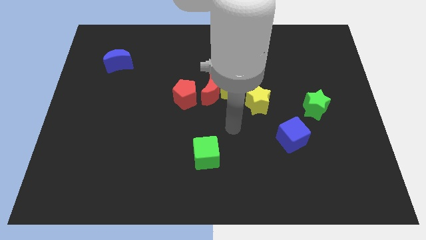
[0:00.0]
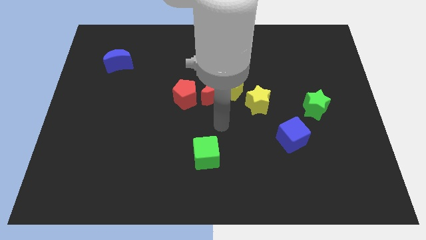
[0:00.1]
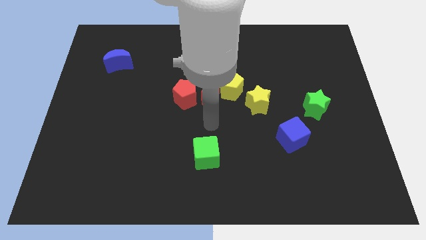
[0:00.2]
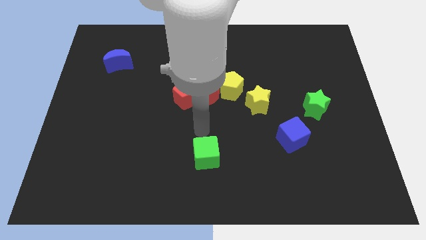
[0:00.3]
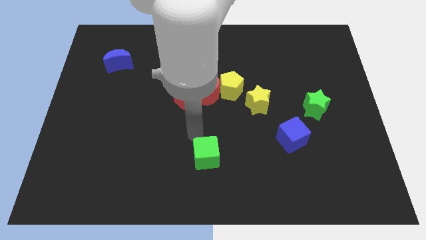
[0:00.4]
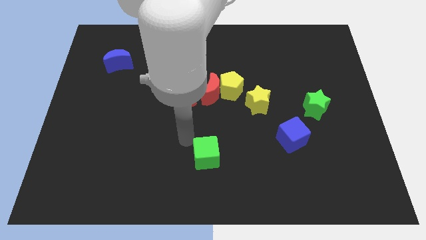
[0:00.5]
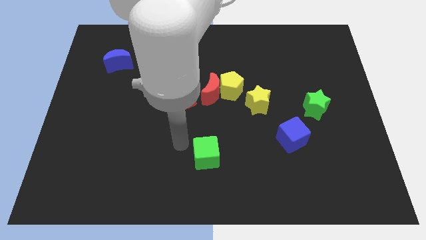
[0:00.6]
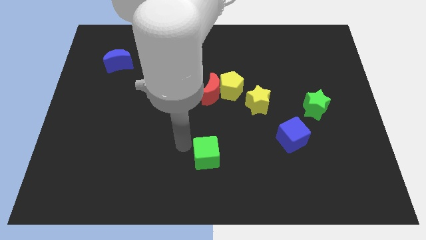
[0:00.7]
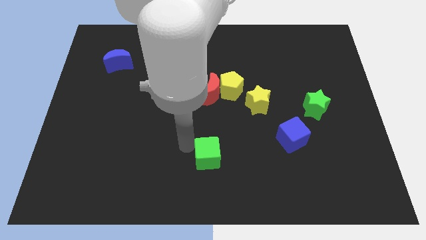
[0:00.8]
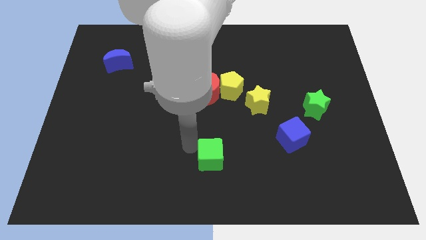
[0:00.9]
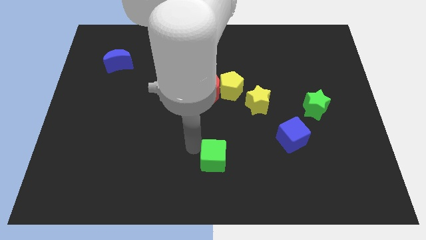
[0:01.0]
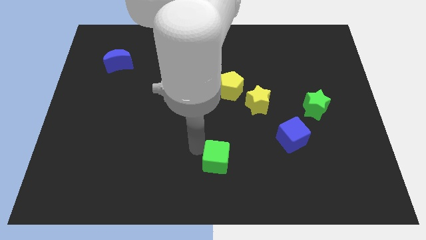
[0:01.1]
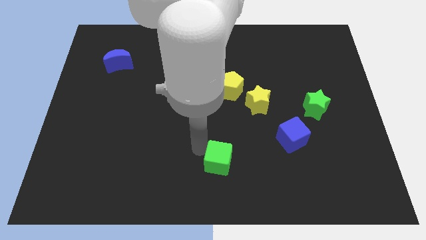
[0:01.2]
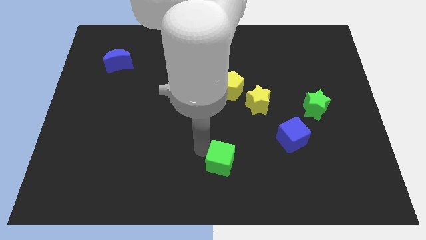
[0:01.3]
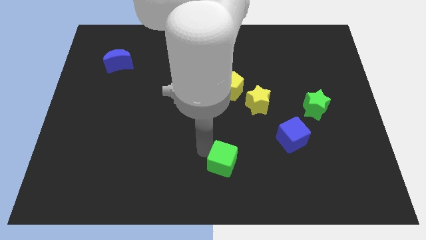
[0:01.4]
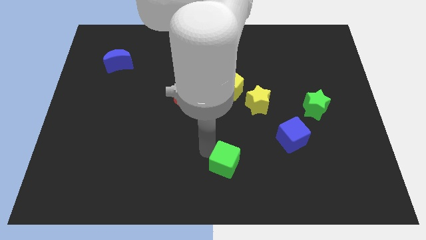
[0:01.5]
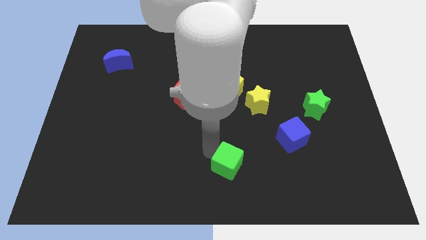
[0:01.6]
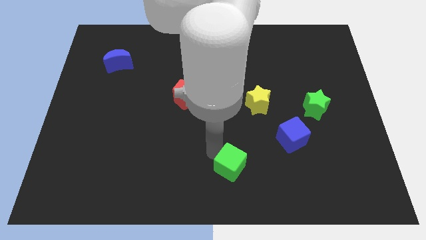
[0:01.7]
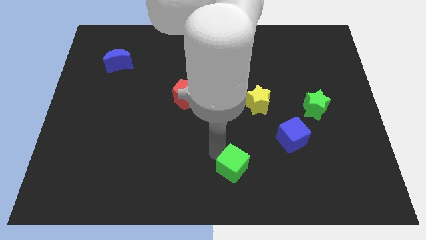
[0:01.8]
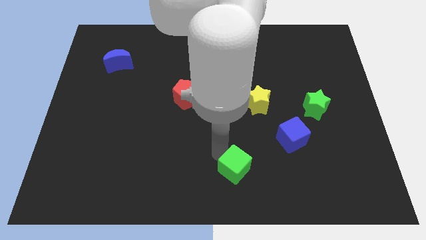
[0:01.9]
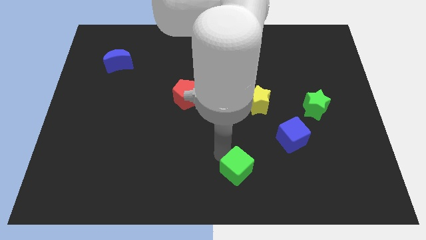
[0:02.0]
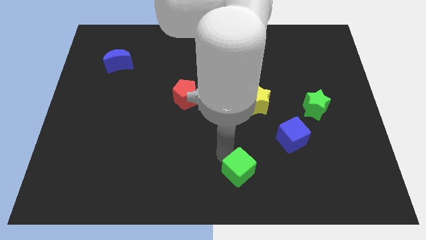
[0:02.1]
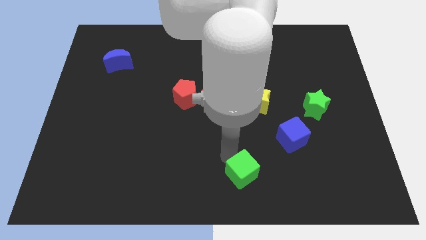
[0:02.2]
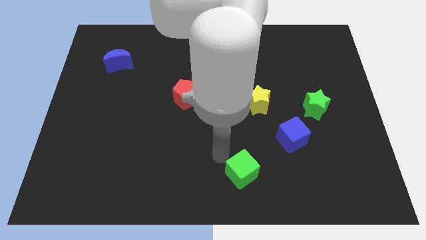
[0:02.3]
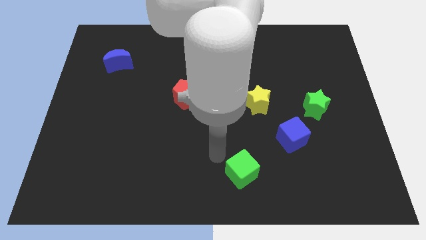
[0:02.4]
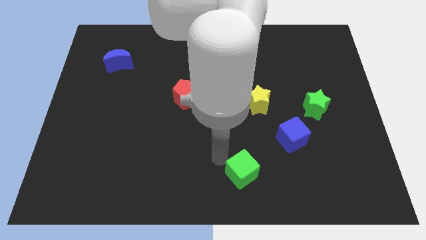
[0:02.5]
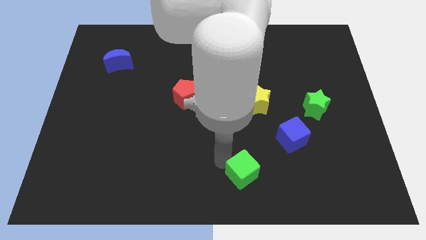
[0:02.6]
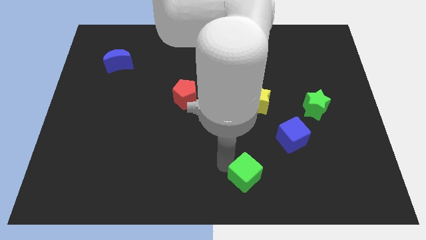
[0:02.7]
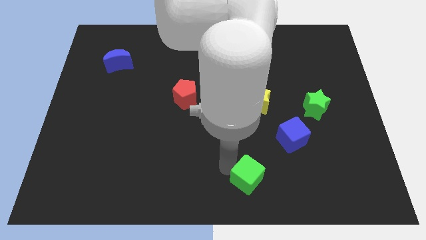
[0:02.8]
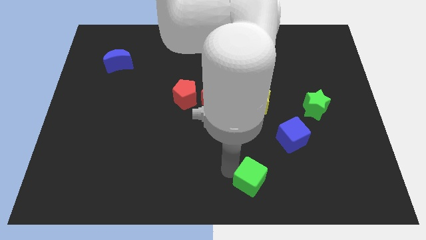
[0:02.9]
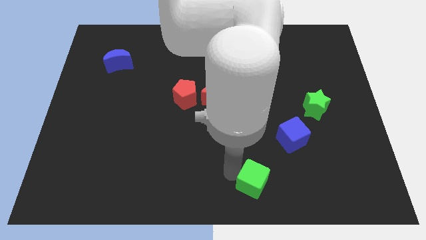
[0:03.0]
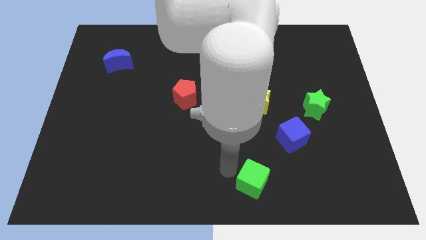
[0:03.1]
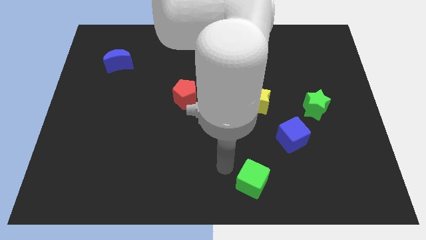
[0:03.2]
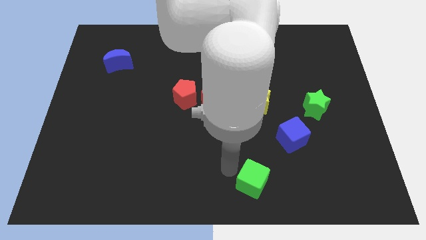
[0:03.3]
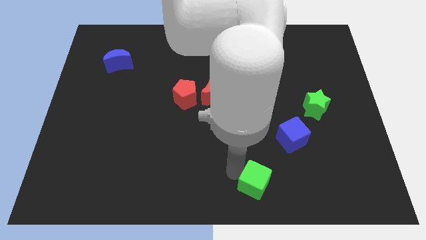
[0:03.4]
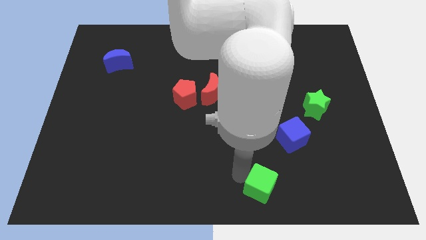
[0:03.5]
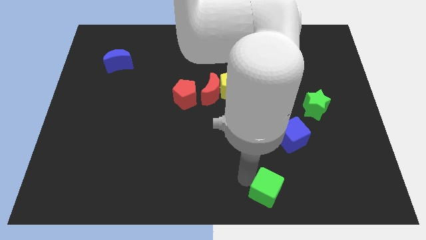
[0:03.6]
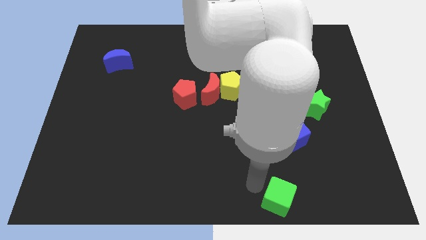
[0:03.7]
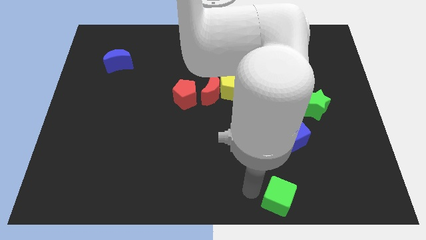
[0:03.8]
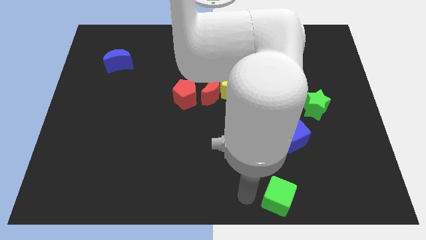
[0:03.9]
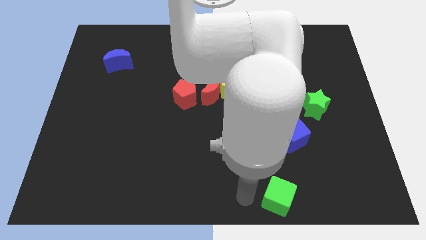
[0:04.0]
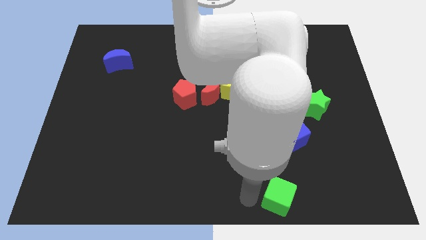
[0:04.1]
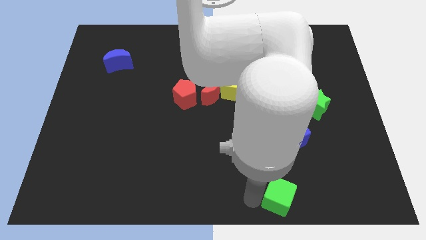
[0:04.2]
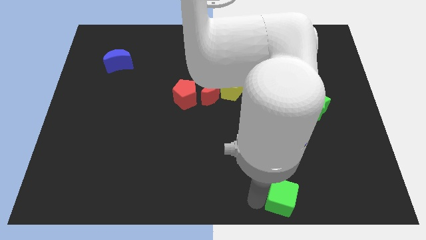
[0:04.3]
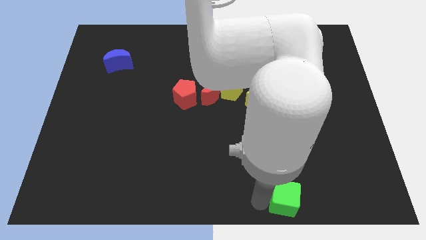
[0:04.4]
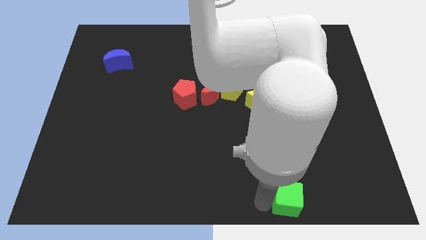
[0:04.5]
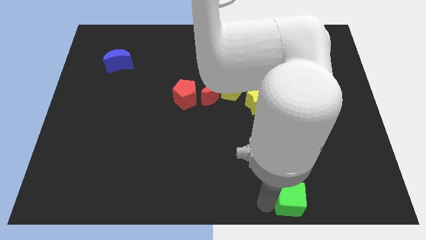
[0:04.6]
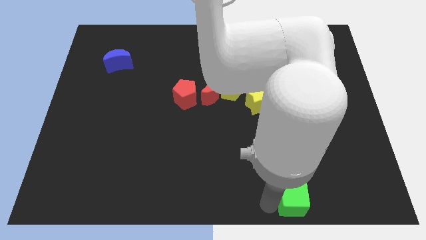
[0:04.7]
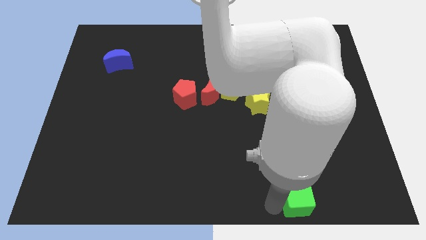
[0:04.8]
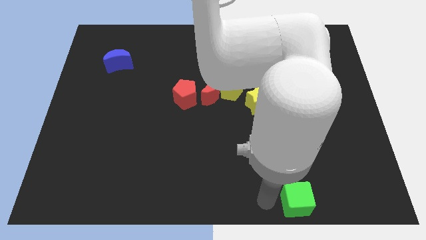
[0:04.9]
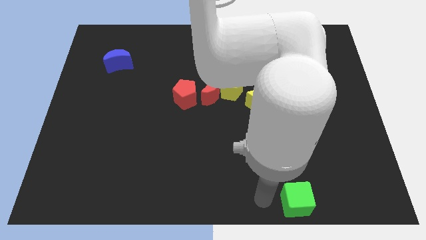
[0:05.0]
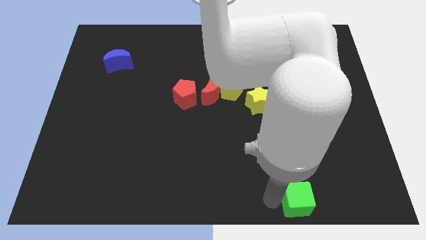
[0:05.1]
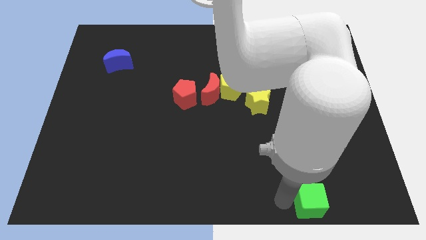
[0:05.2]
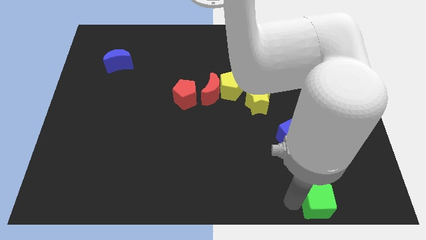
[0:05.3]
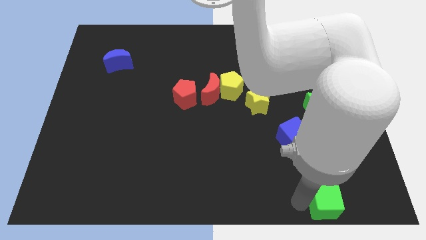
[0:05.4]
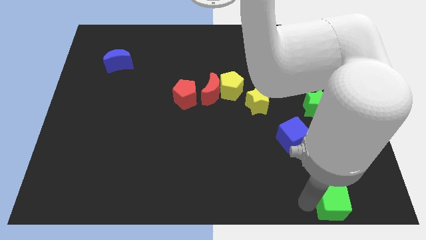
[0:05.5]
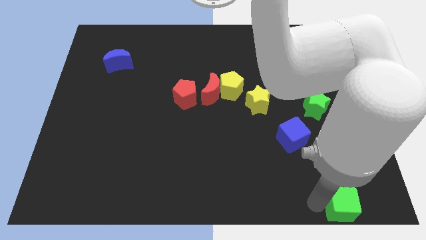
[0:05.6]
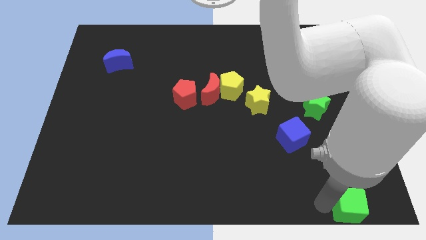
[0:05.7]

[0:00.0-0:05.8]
put the green cube to the bottom right

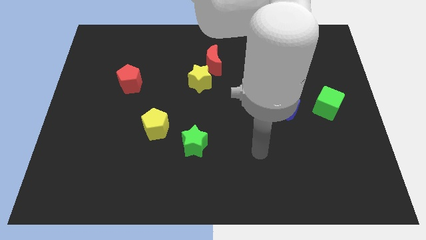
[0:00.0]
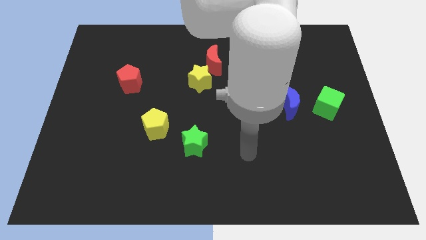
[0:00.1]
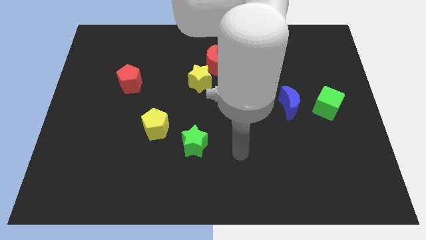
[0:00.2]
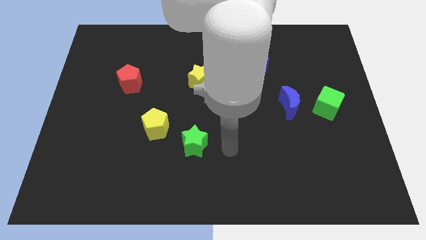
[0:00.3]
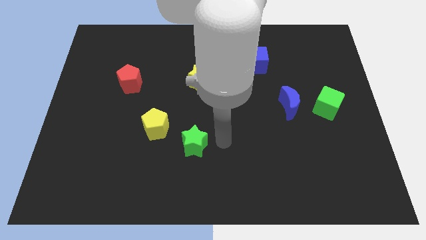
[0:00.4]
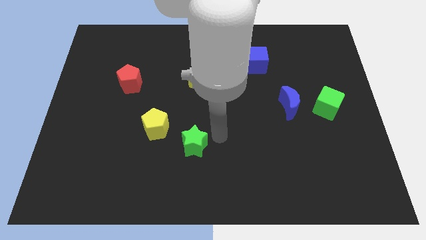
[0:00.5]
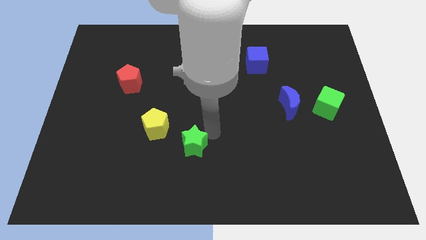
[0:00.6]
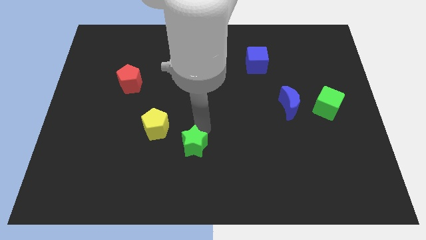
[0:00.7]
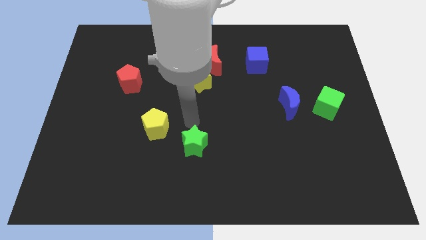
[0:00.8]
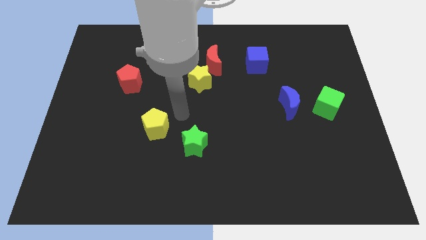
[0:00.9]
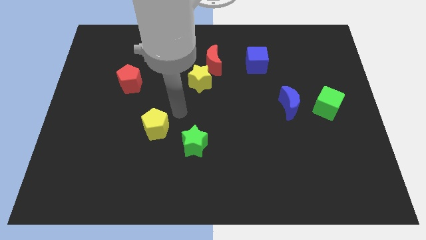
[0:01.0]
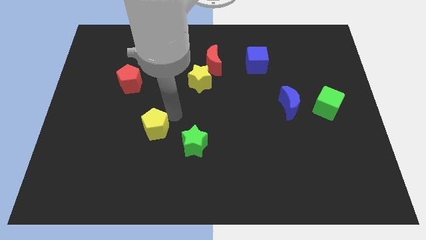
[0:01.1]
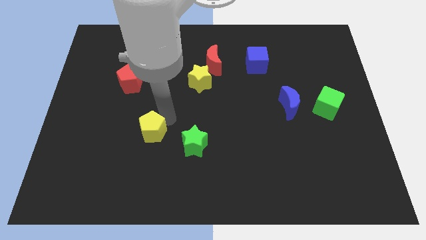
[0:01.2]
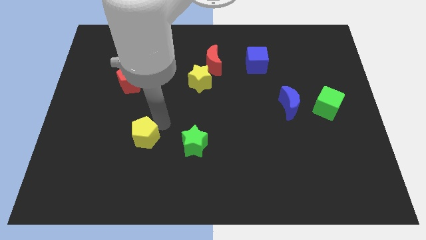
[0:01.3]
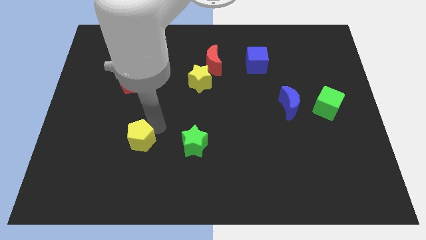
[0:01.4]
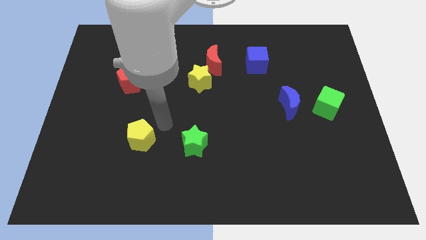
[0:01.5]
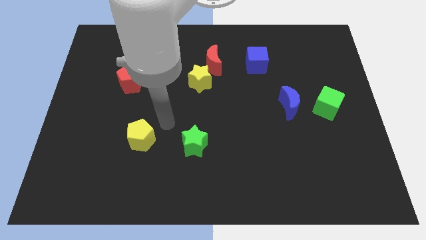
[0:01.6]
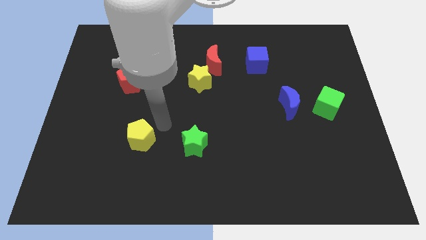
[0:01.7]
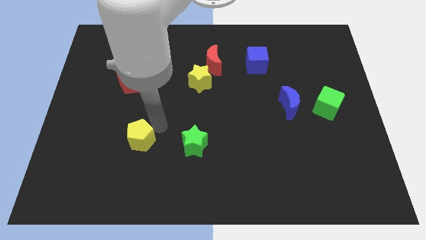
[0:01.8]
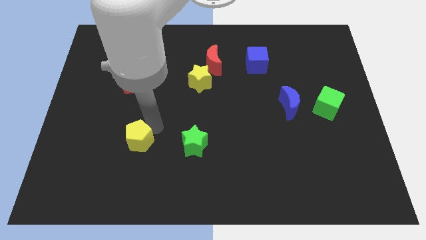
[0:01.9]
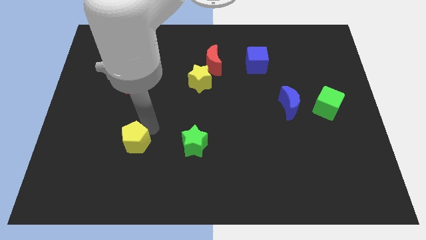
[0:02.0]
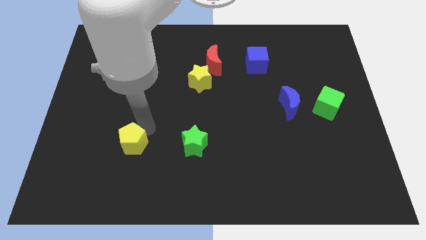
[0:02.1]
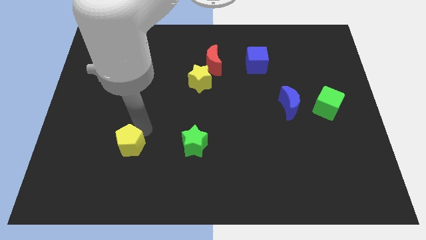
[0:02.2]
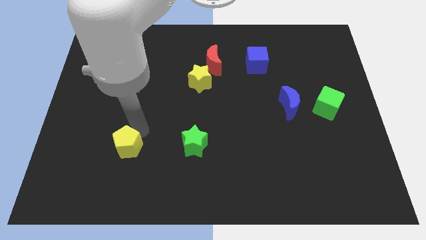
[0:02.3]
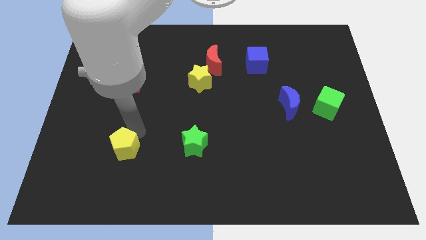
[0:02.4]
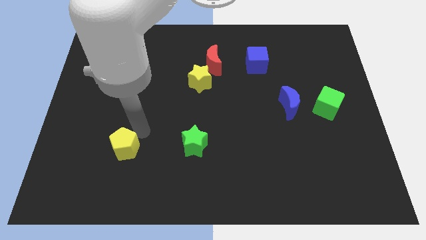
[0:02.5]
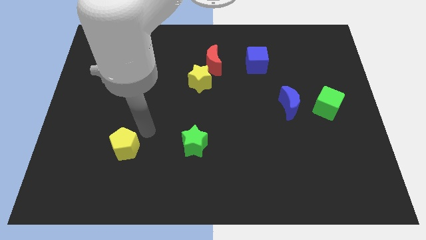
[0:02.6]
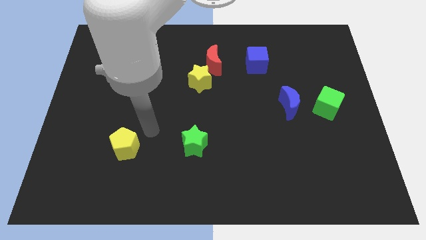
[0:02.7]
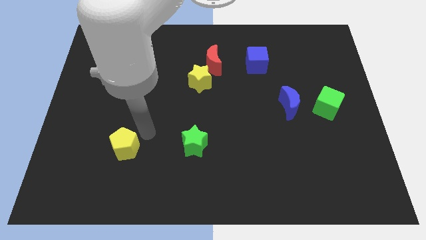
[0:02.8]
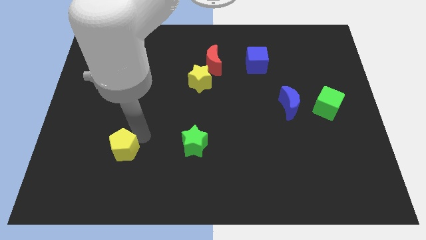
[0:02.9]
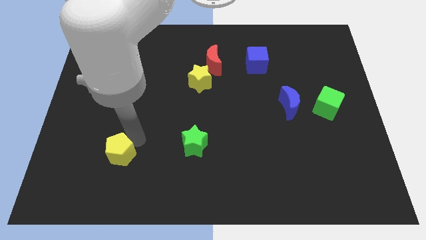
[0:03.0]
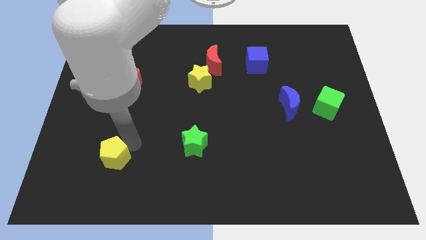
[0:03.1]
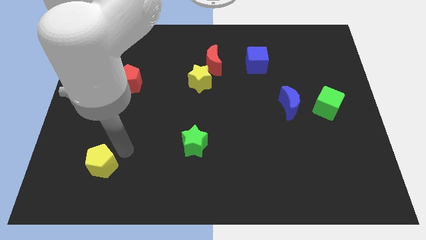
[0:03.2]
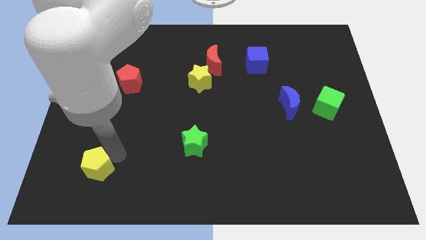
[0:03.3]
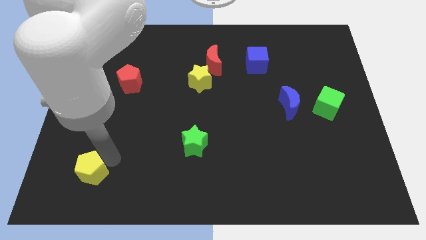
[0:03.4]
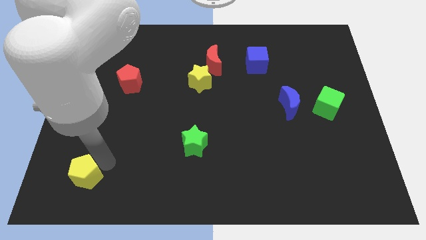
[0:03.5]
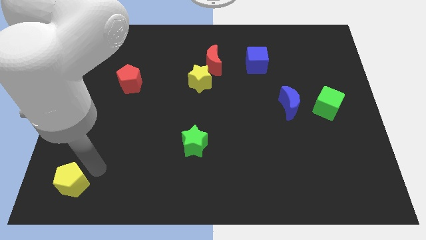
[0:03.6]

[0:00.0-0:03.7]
move the yellow pentagon to the lower left corner
